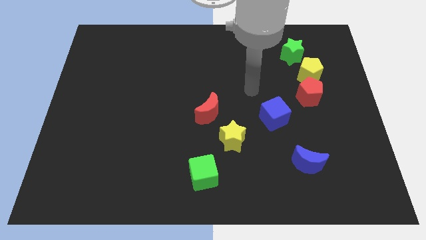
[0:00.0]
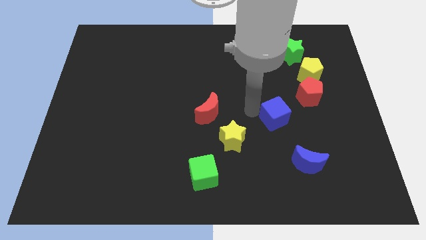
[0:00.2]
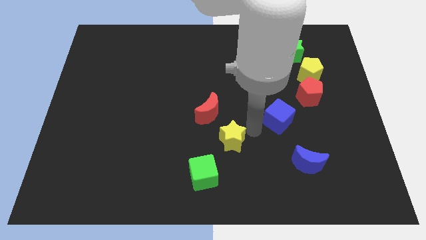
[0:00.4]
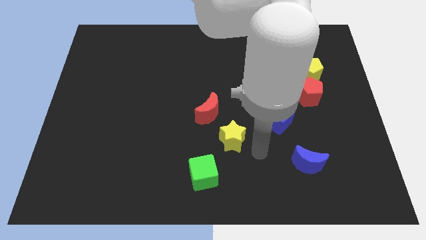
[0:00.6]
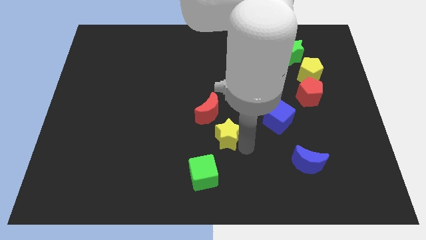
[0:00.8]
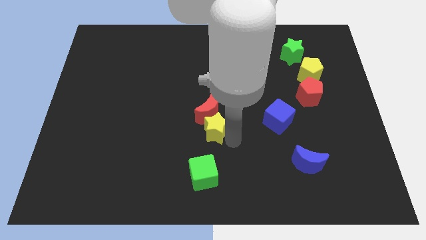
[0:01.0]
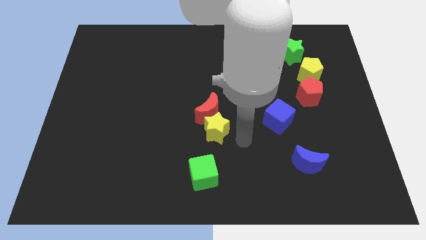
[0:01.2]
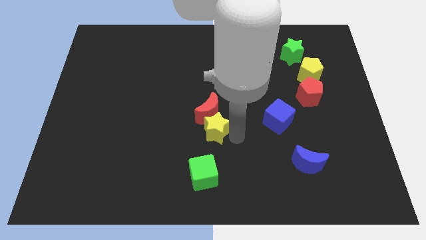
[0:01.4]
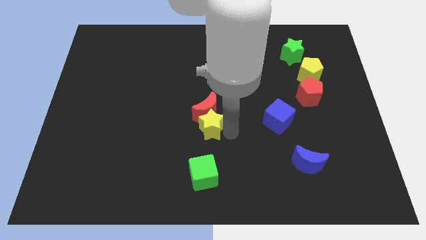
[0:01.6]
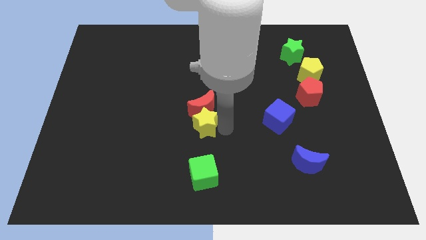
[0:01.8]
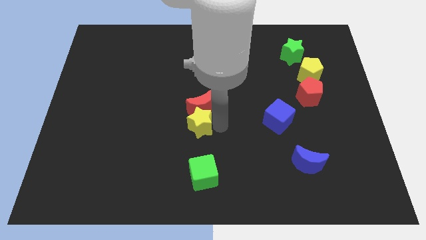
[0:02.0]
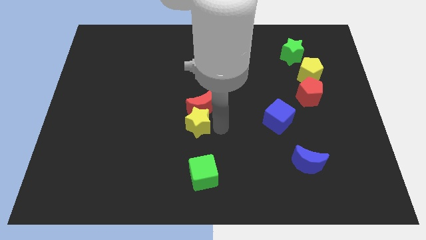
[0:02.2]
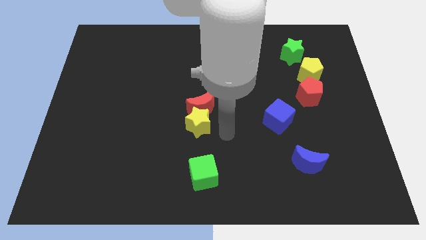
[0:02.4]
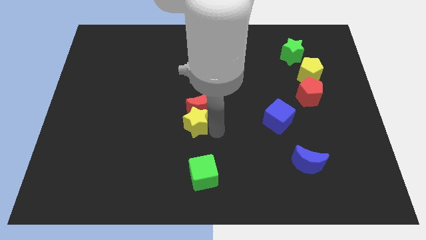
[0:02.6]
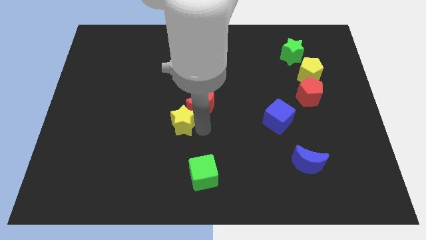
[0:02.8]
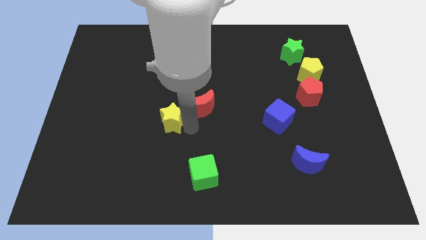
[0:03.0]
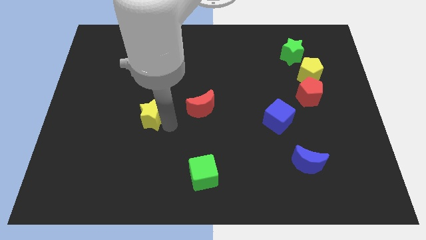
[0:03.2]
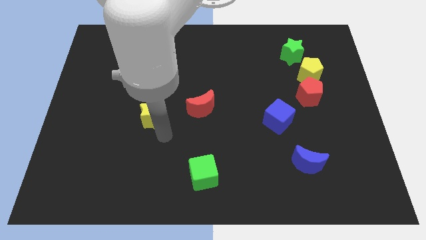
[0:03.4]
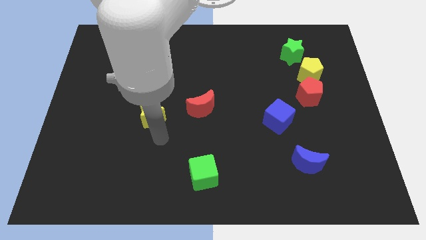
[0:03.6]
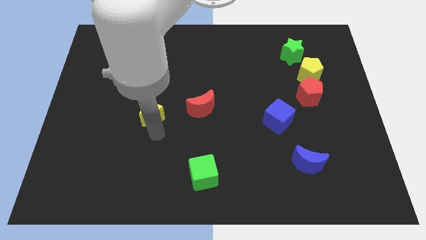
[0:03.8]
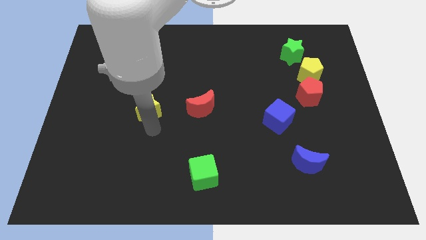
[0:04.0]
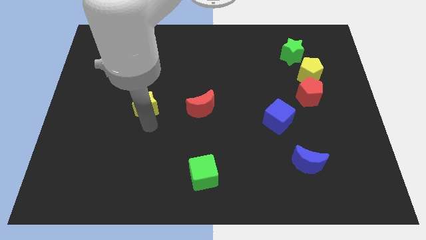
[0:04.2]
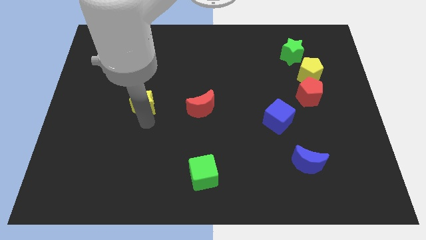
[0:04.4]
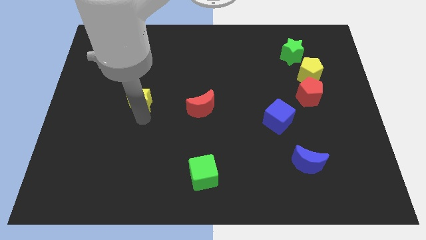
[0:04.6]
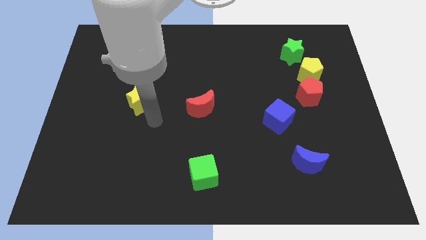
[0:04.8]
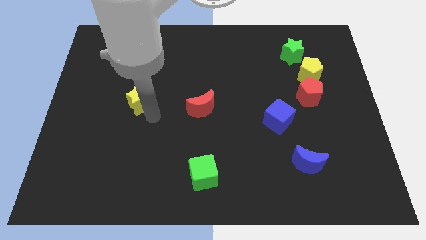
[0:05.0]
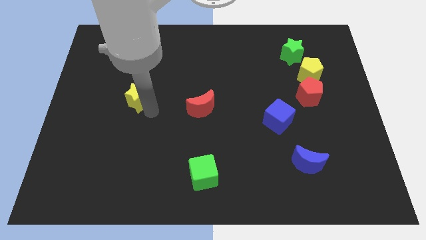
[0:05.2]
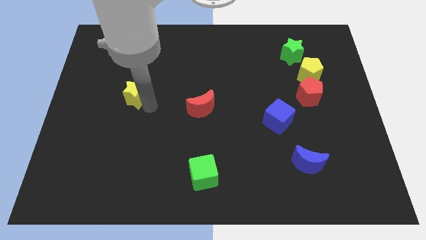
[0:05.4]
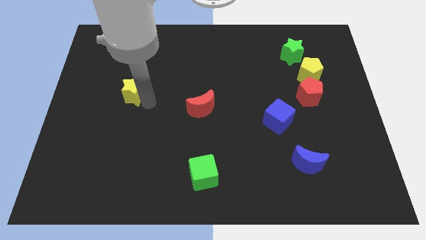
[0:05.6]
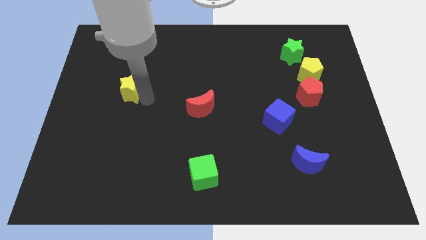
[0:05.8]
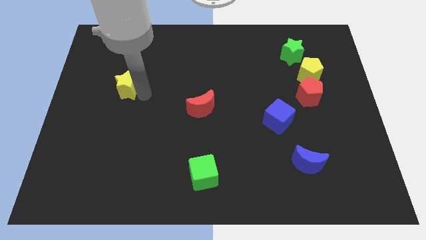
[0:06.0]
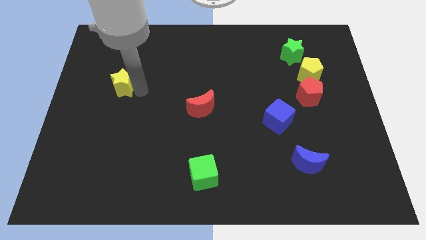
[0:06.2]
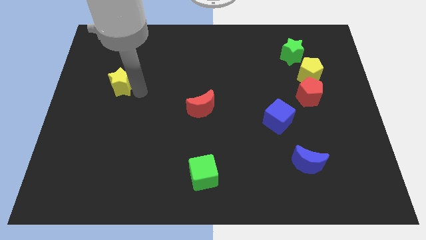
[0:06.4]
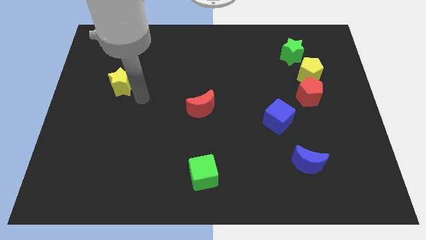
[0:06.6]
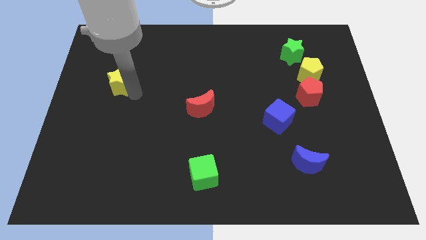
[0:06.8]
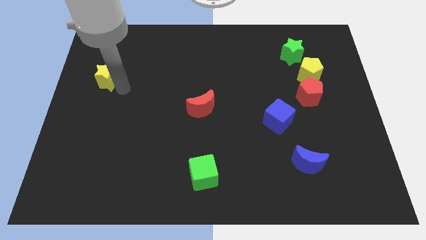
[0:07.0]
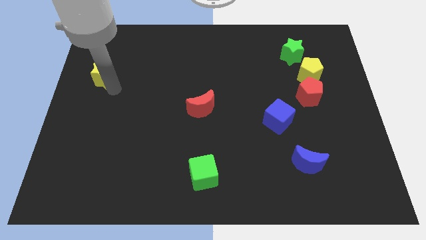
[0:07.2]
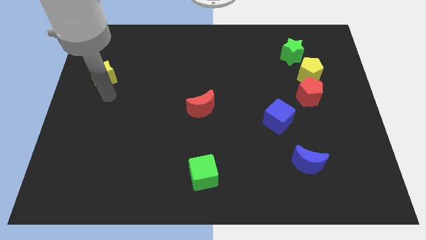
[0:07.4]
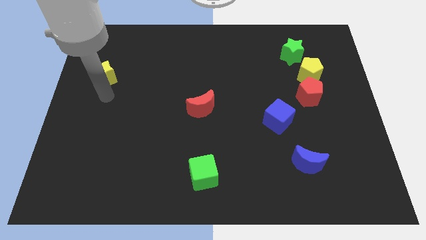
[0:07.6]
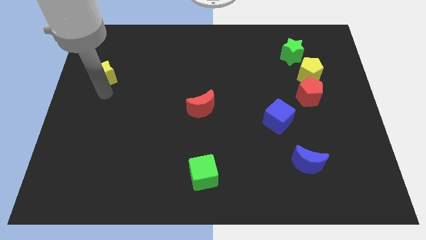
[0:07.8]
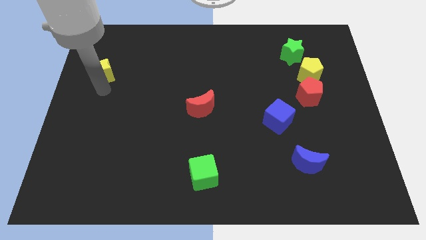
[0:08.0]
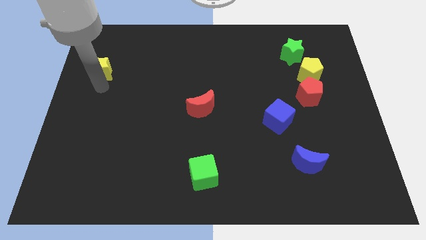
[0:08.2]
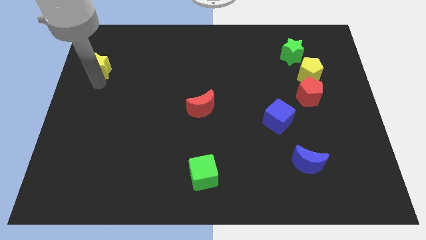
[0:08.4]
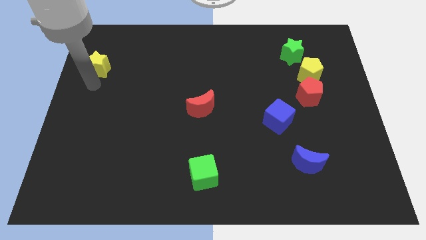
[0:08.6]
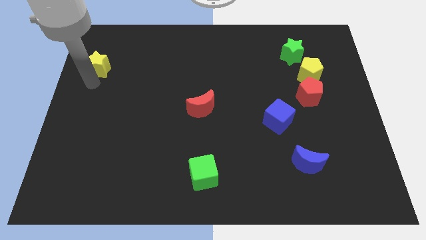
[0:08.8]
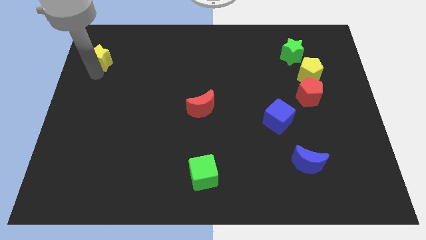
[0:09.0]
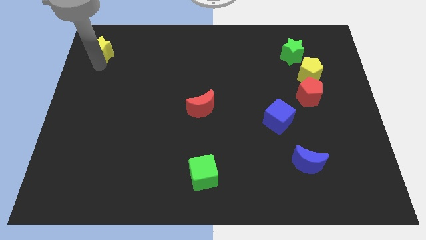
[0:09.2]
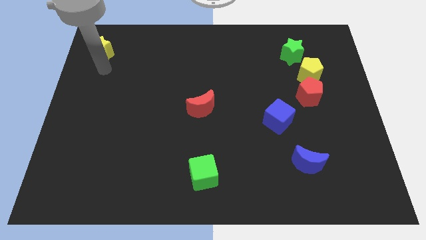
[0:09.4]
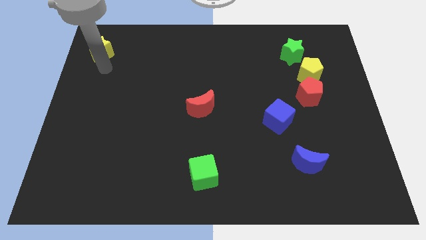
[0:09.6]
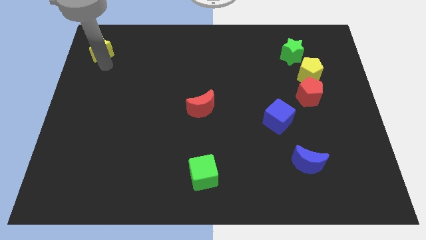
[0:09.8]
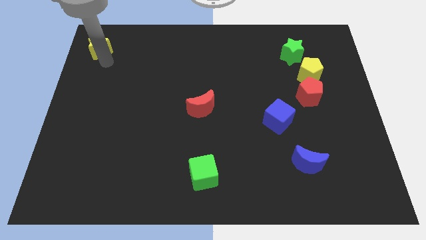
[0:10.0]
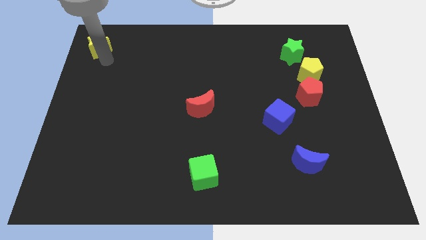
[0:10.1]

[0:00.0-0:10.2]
put the yellow star to the top left of the board

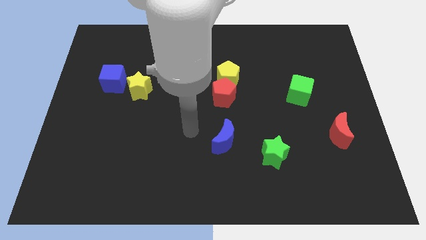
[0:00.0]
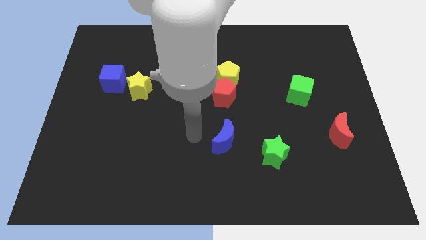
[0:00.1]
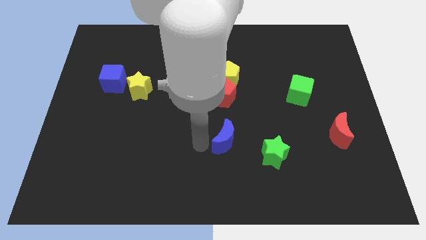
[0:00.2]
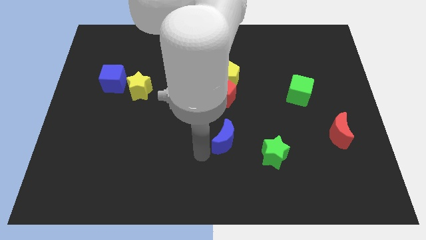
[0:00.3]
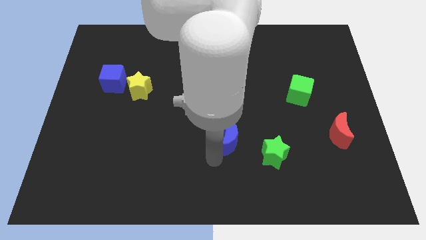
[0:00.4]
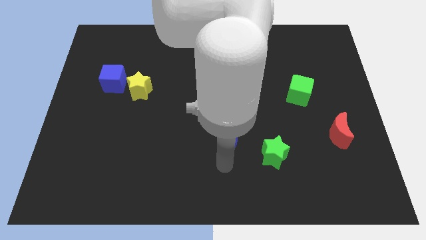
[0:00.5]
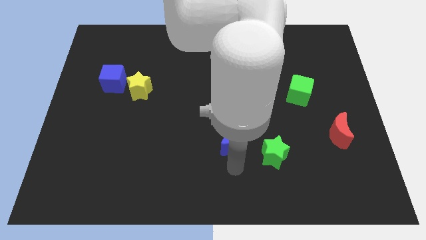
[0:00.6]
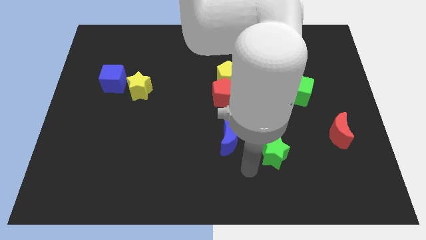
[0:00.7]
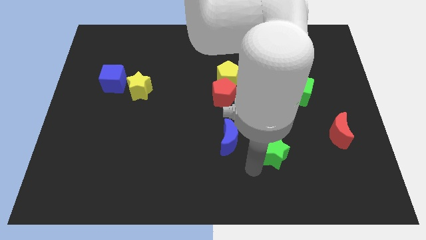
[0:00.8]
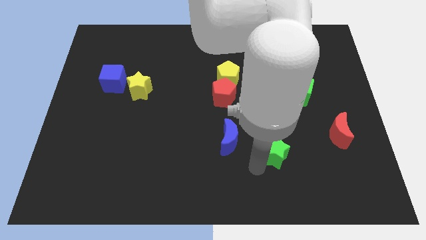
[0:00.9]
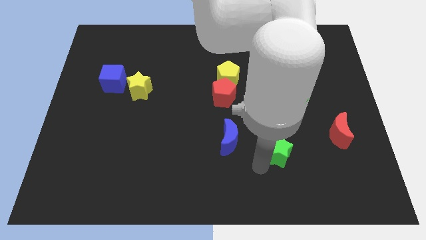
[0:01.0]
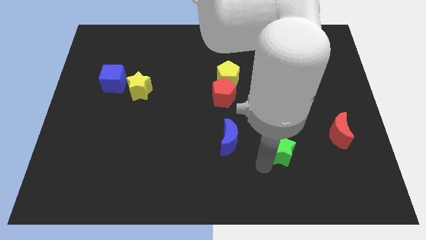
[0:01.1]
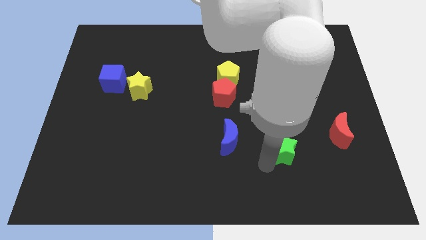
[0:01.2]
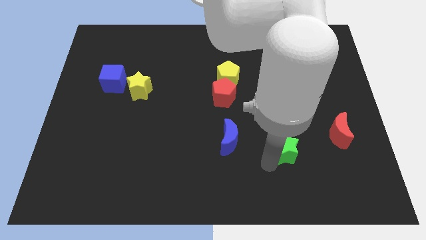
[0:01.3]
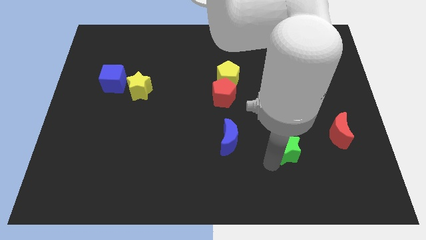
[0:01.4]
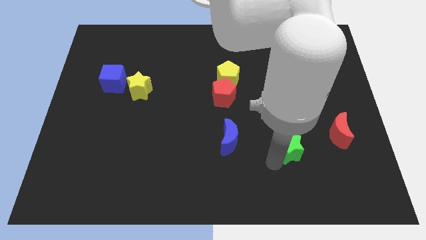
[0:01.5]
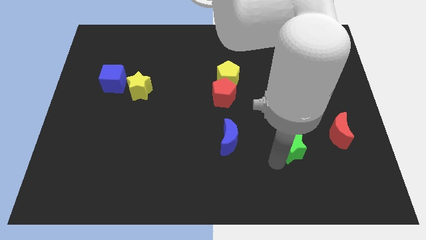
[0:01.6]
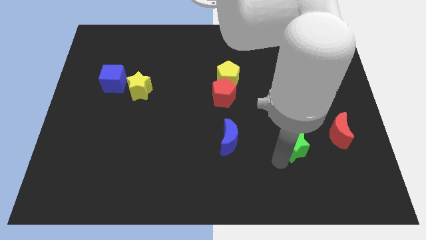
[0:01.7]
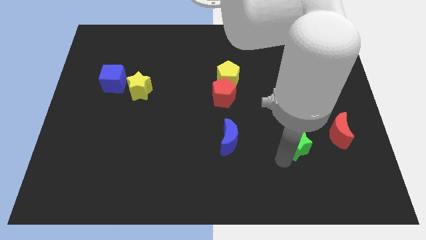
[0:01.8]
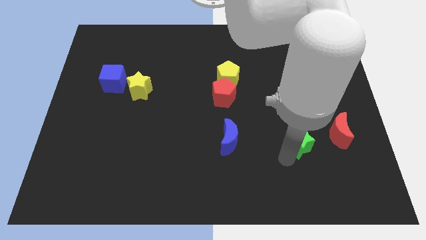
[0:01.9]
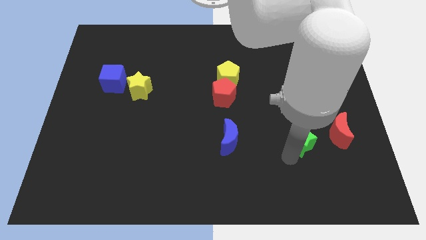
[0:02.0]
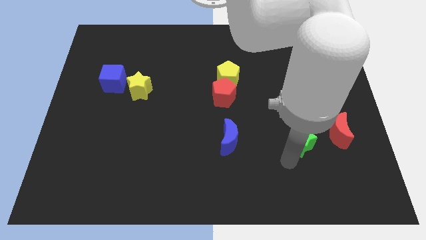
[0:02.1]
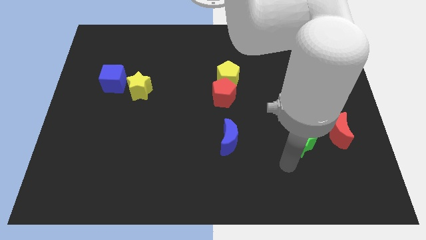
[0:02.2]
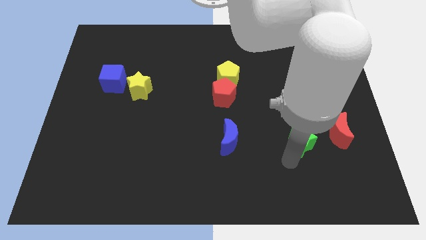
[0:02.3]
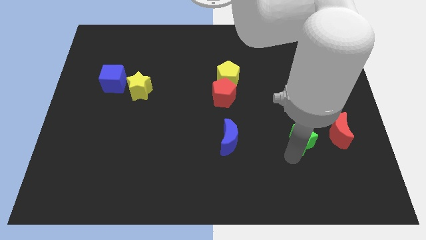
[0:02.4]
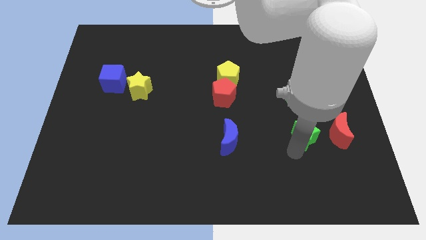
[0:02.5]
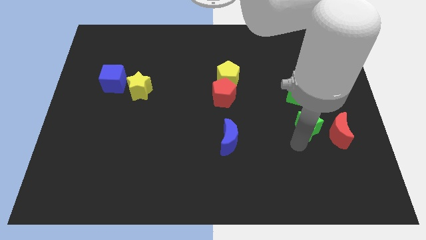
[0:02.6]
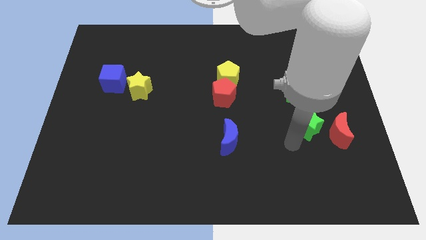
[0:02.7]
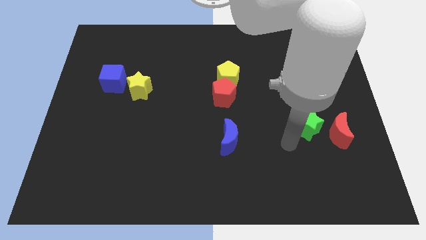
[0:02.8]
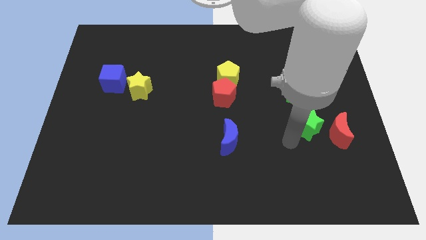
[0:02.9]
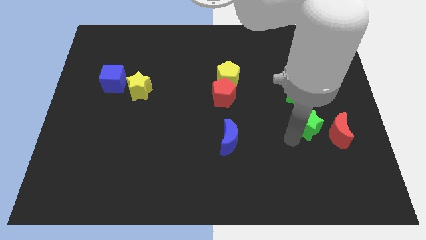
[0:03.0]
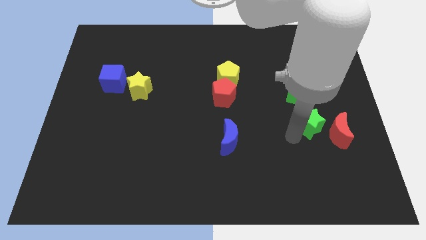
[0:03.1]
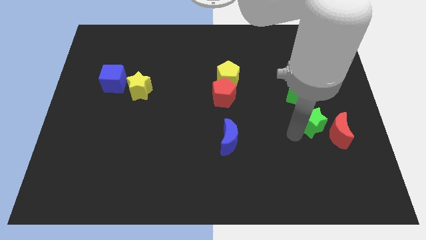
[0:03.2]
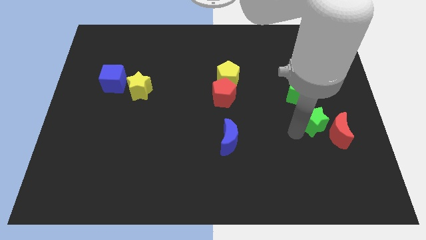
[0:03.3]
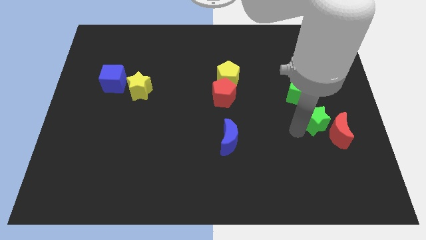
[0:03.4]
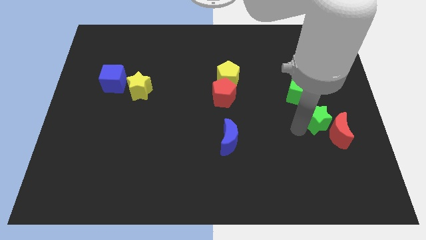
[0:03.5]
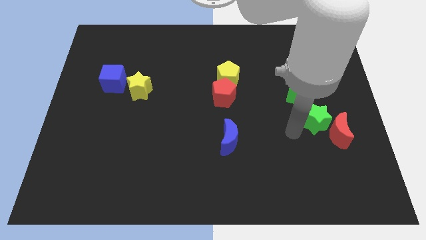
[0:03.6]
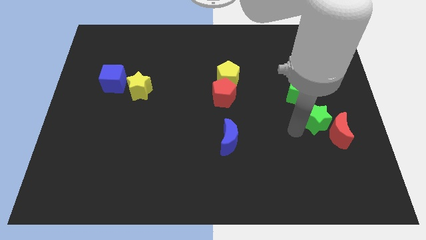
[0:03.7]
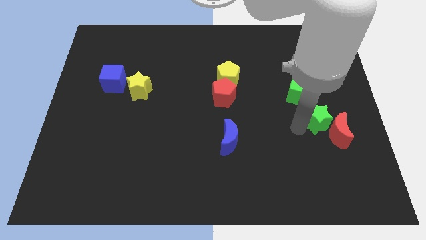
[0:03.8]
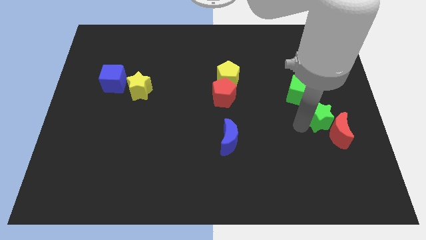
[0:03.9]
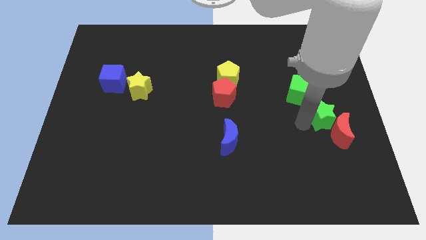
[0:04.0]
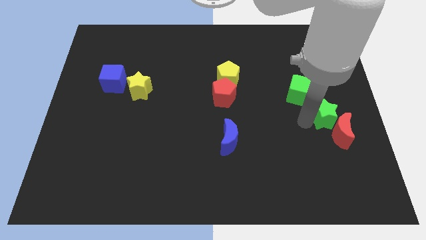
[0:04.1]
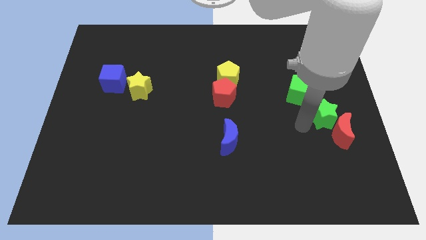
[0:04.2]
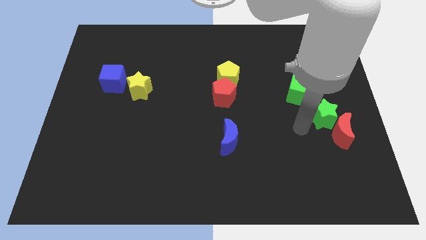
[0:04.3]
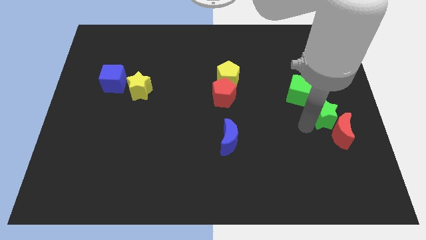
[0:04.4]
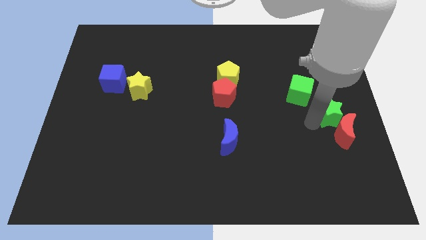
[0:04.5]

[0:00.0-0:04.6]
put the green star to the center right
